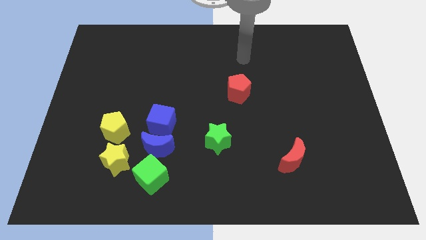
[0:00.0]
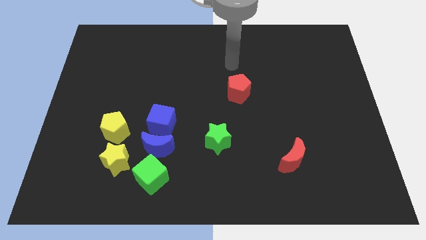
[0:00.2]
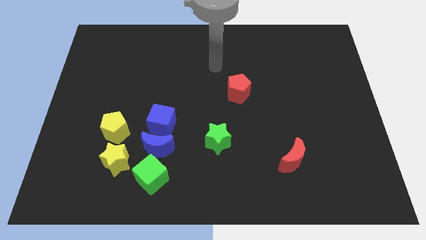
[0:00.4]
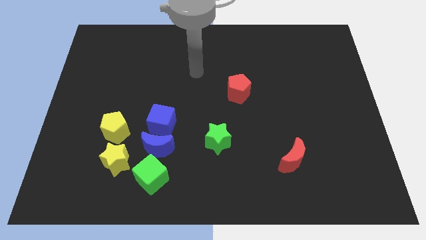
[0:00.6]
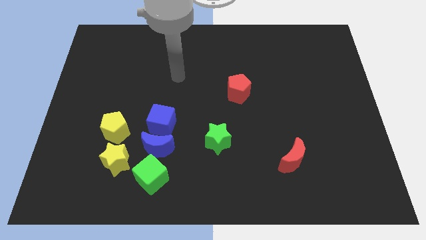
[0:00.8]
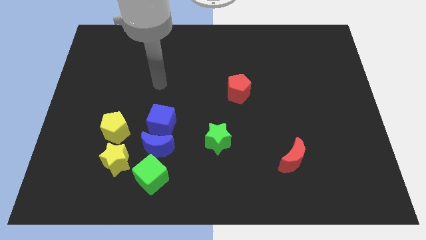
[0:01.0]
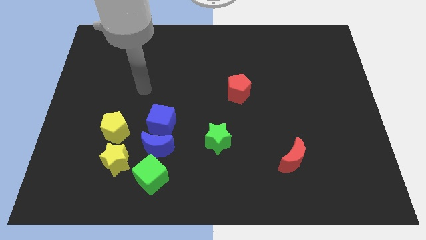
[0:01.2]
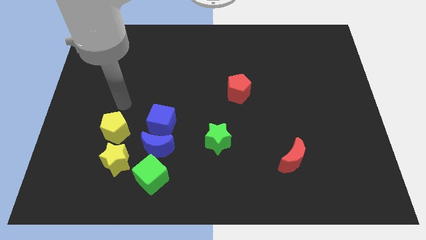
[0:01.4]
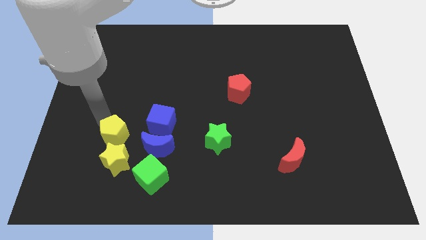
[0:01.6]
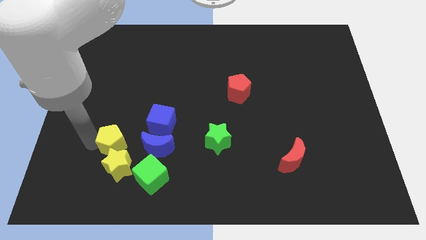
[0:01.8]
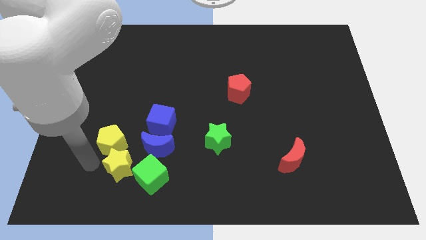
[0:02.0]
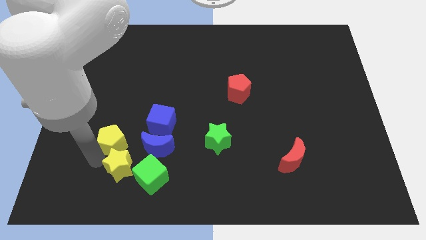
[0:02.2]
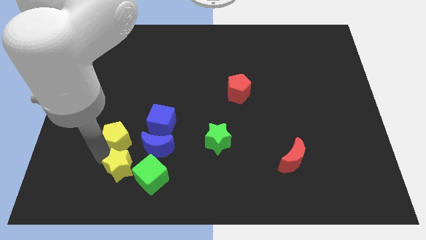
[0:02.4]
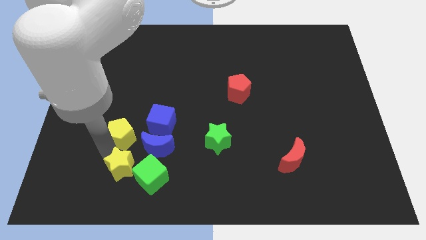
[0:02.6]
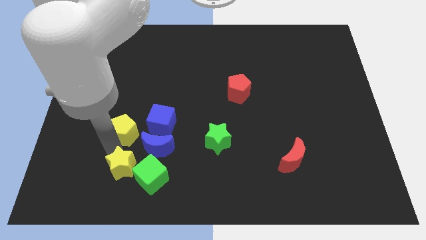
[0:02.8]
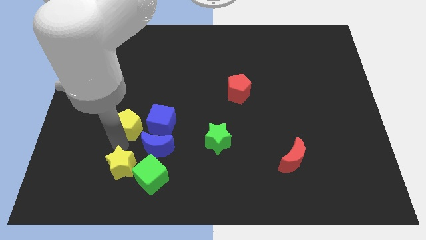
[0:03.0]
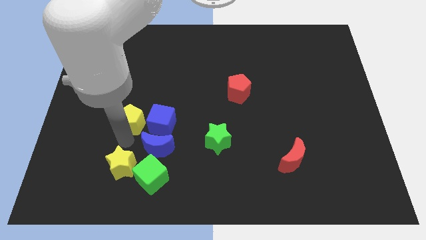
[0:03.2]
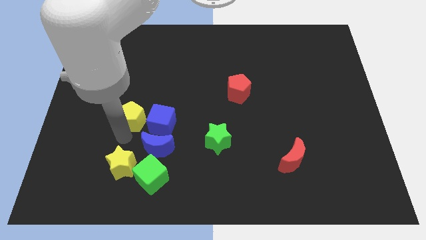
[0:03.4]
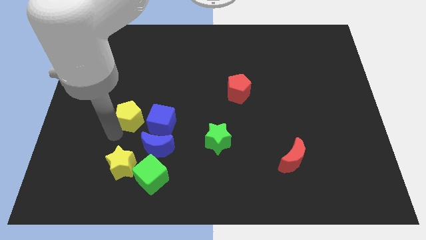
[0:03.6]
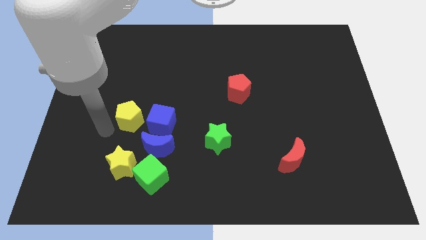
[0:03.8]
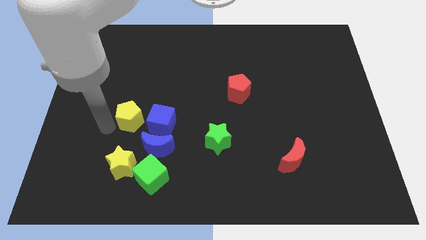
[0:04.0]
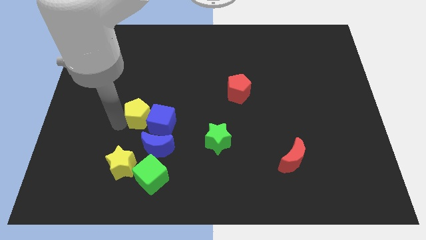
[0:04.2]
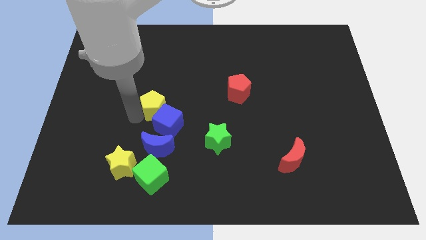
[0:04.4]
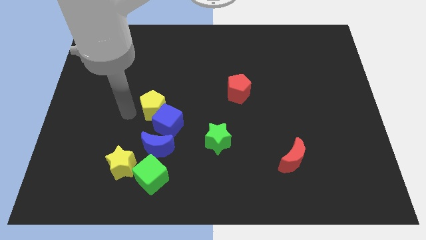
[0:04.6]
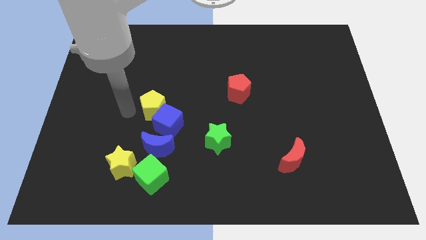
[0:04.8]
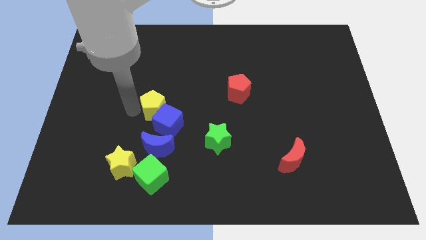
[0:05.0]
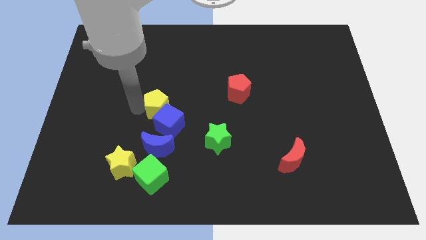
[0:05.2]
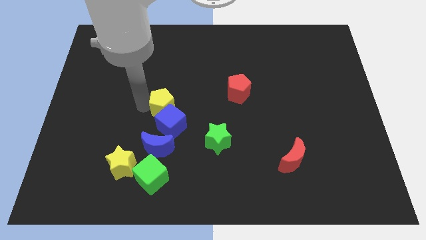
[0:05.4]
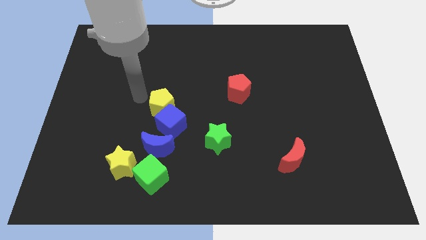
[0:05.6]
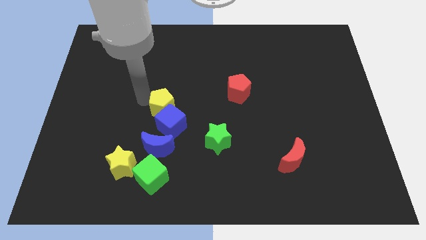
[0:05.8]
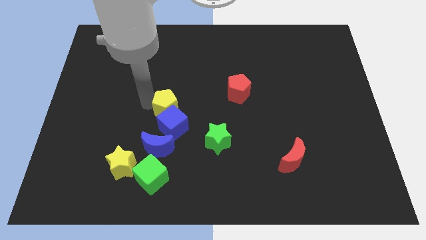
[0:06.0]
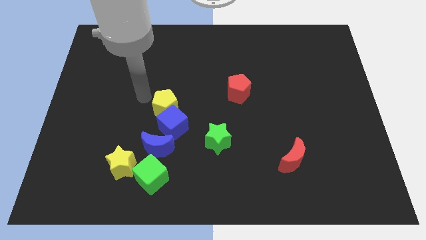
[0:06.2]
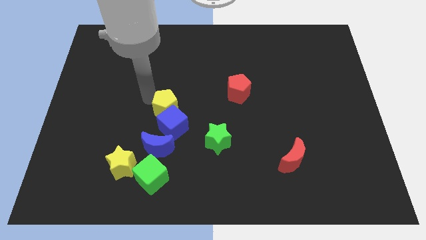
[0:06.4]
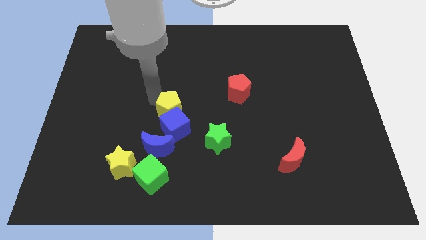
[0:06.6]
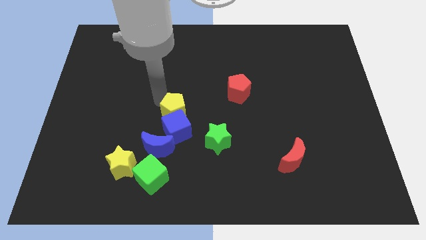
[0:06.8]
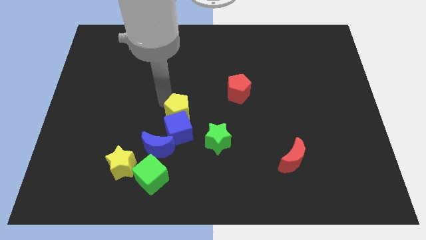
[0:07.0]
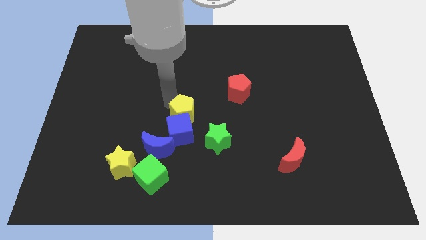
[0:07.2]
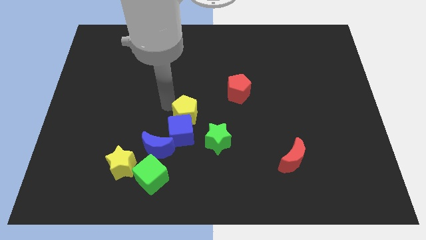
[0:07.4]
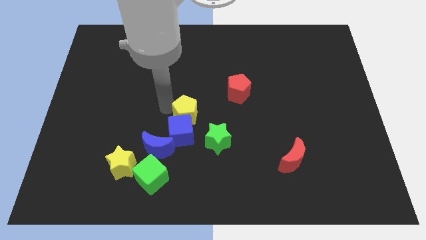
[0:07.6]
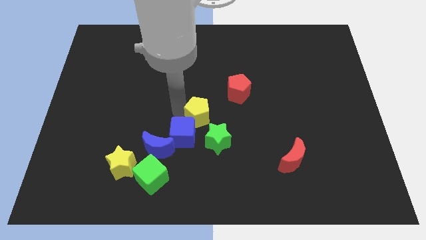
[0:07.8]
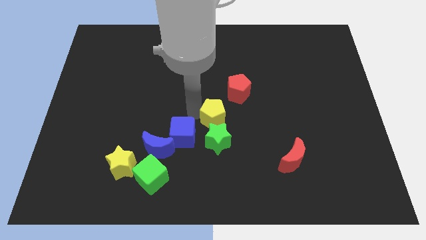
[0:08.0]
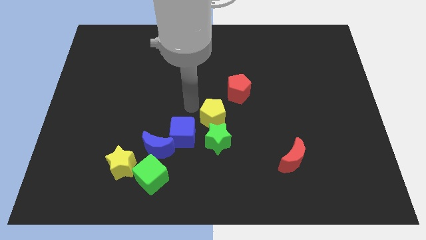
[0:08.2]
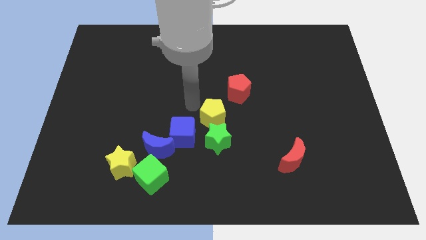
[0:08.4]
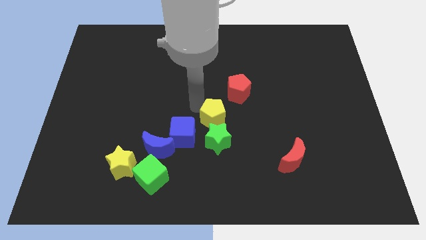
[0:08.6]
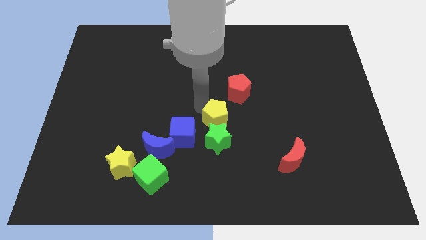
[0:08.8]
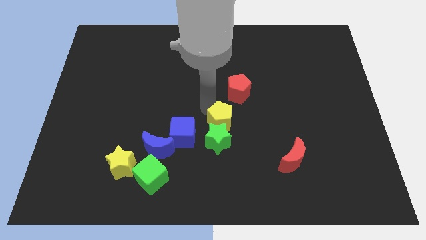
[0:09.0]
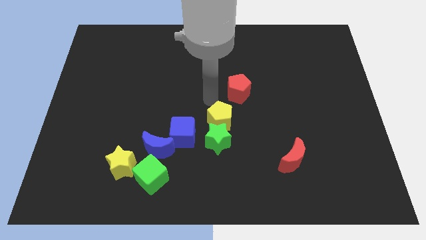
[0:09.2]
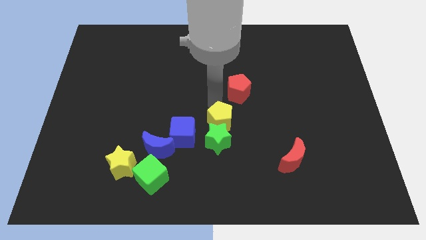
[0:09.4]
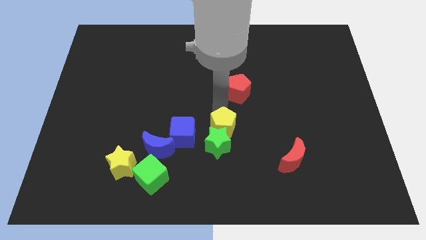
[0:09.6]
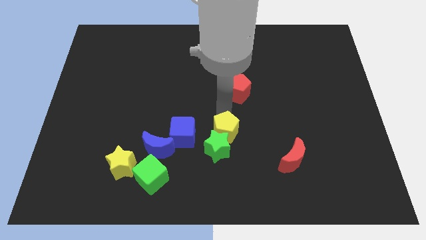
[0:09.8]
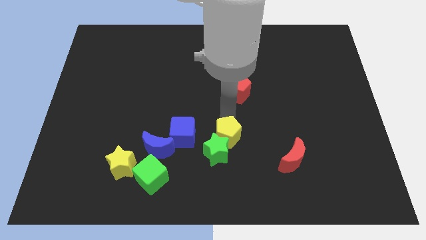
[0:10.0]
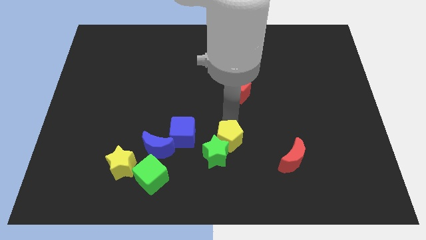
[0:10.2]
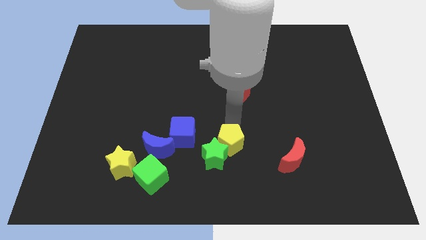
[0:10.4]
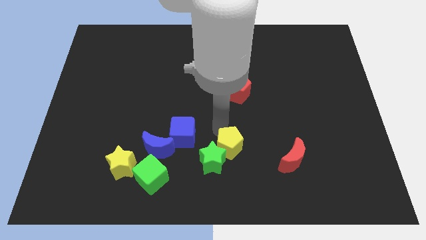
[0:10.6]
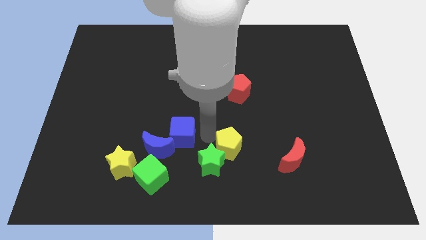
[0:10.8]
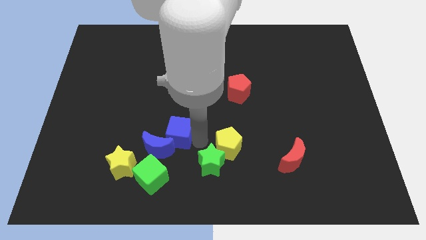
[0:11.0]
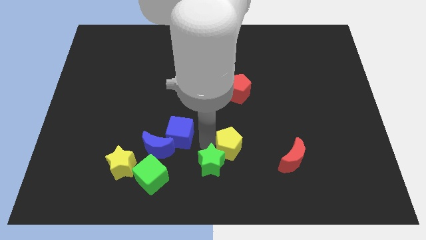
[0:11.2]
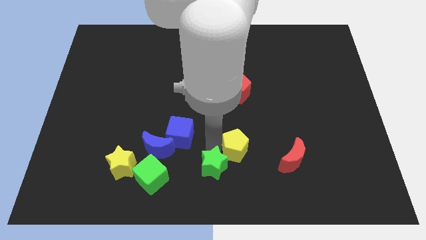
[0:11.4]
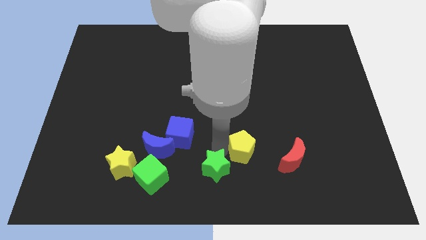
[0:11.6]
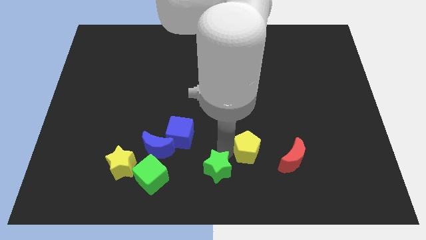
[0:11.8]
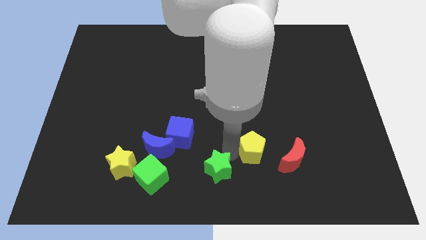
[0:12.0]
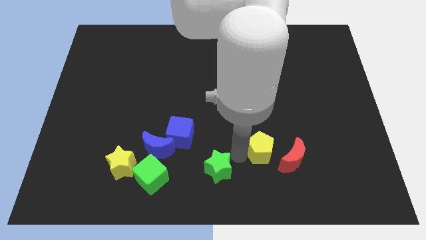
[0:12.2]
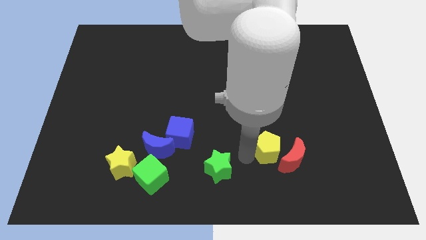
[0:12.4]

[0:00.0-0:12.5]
put the yellow pentagon towards the red moon

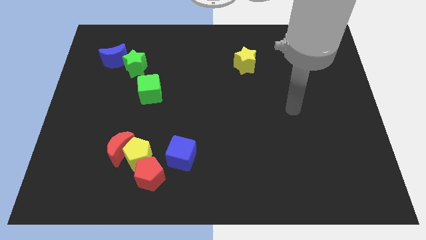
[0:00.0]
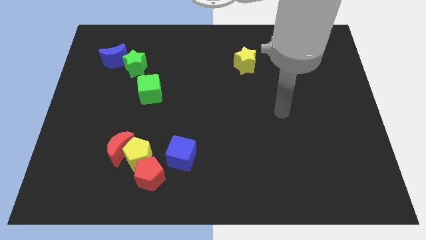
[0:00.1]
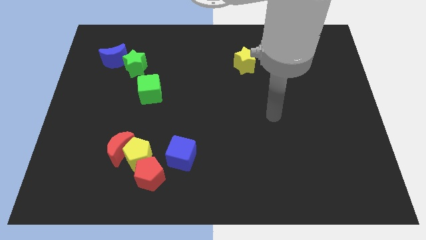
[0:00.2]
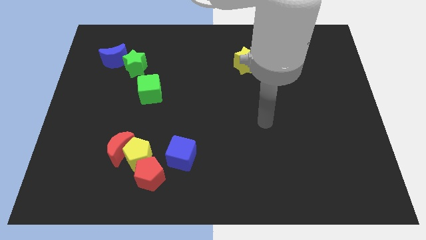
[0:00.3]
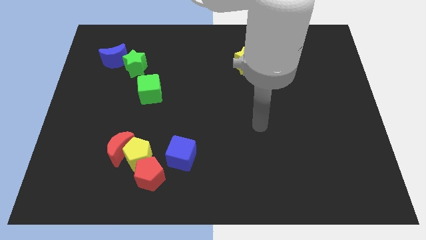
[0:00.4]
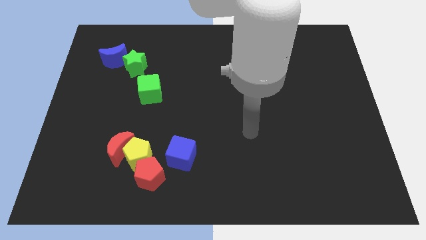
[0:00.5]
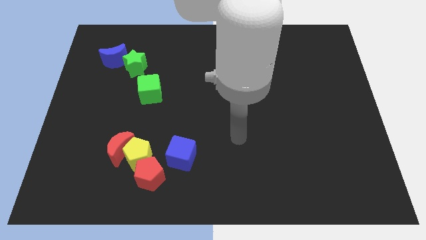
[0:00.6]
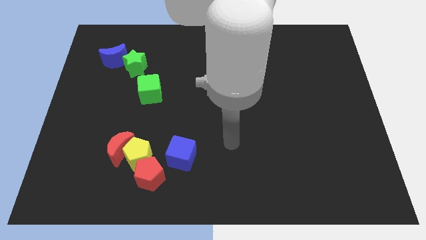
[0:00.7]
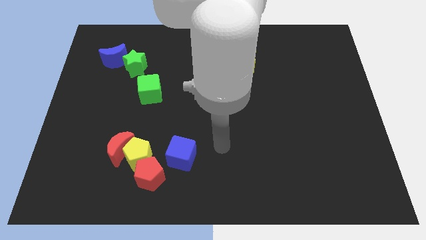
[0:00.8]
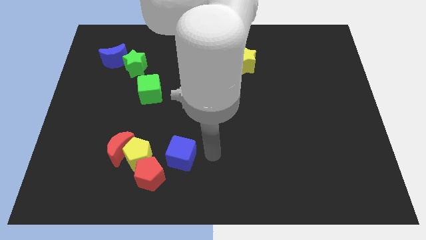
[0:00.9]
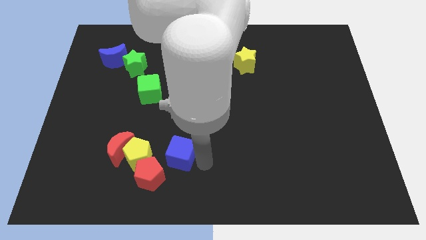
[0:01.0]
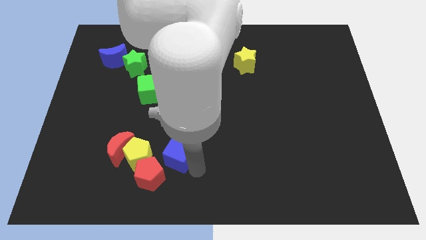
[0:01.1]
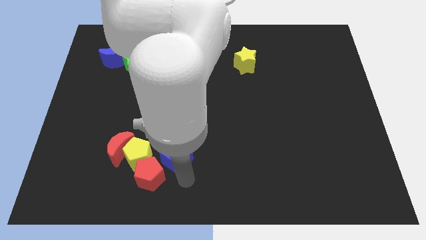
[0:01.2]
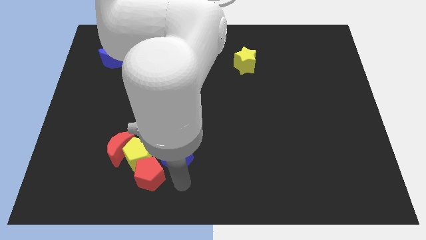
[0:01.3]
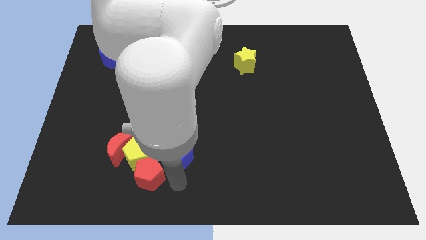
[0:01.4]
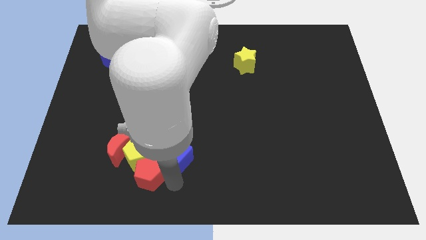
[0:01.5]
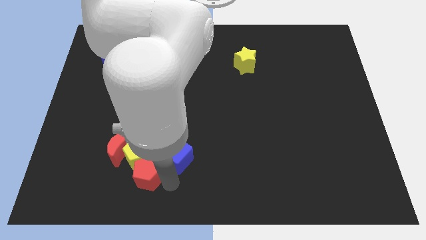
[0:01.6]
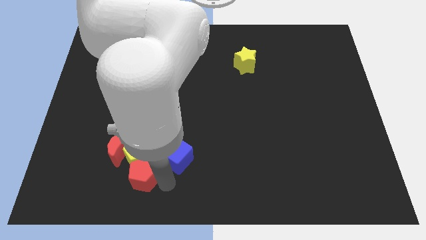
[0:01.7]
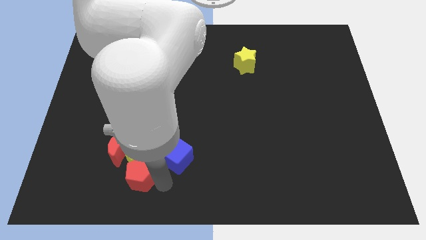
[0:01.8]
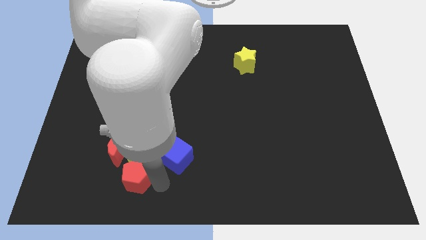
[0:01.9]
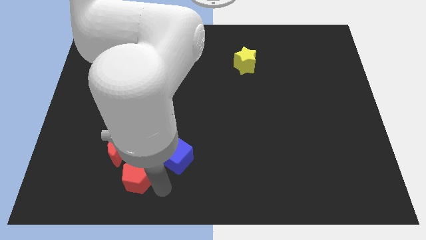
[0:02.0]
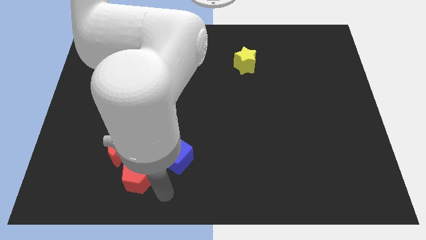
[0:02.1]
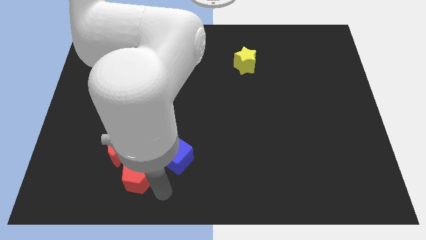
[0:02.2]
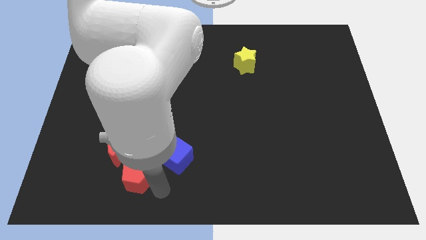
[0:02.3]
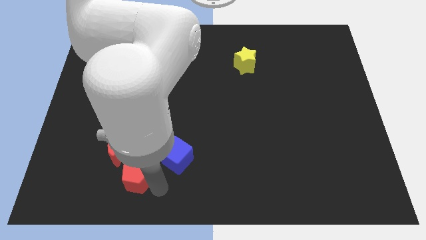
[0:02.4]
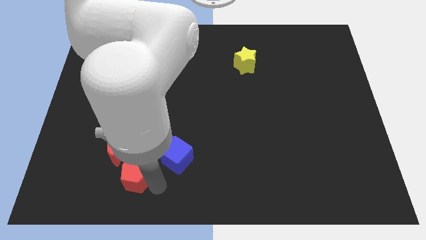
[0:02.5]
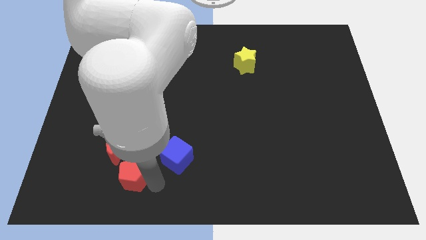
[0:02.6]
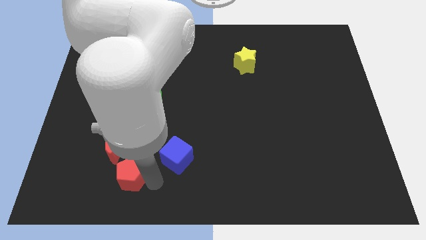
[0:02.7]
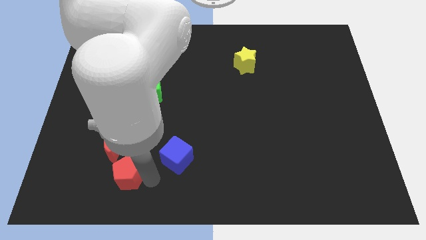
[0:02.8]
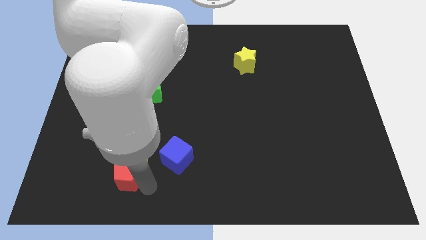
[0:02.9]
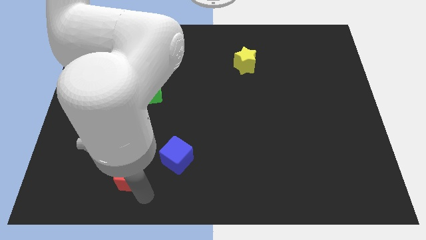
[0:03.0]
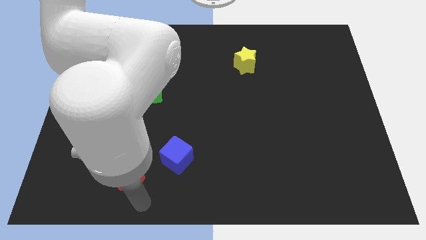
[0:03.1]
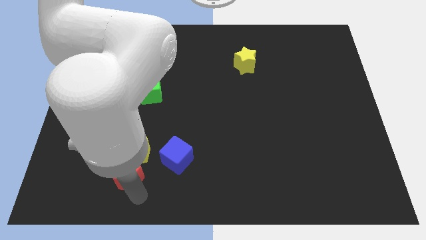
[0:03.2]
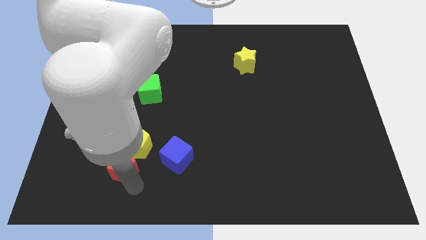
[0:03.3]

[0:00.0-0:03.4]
push the red pentagon to the red moon
